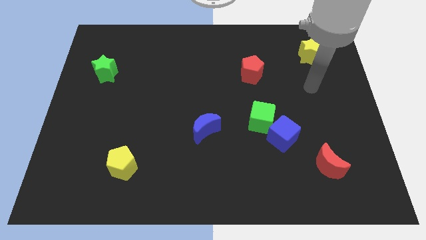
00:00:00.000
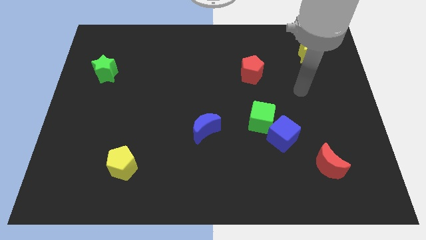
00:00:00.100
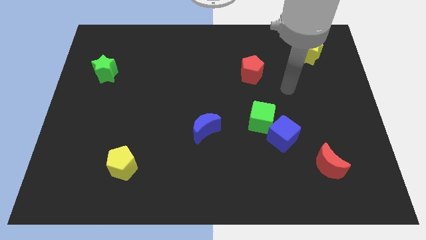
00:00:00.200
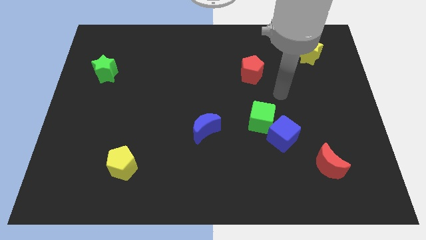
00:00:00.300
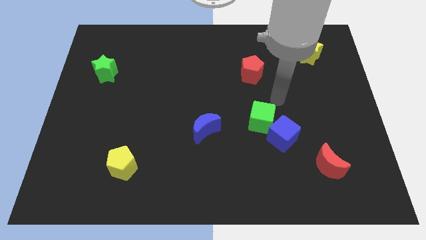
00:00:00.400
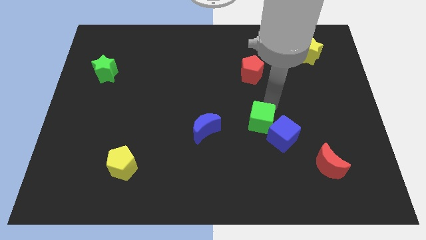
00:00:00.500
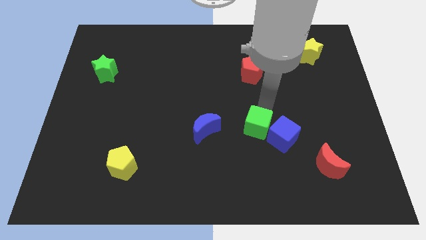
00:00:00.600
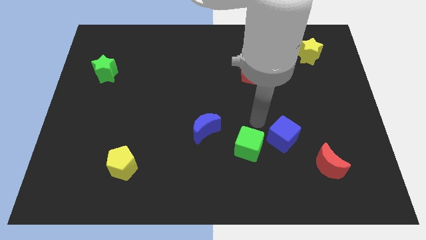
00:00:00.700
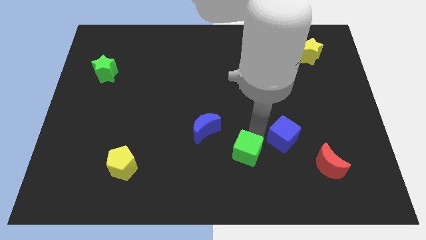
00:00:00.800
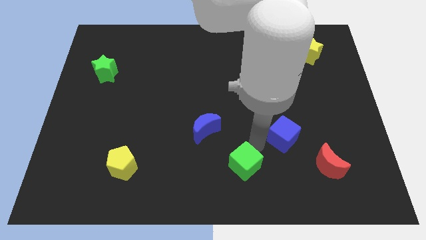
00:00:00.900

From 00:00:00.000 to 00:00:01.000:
pull the blue cube apart from the green cube

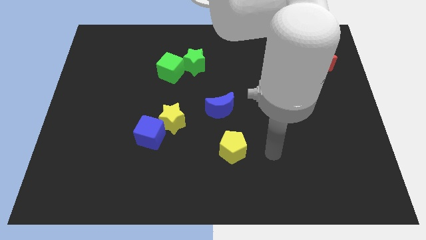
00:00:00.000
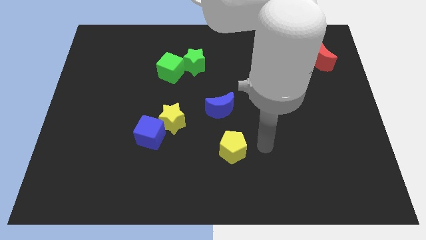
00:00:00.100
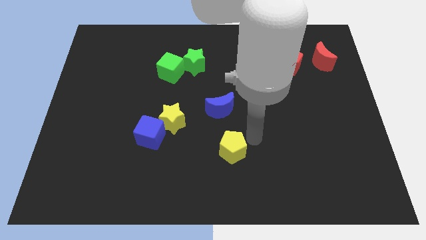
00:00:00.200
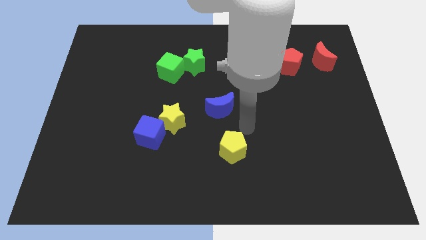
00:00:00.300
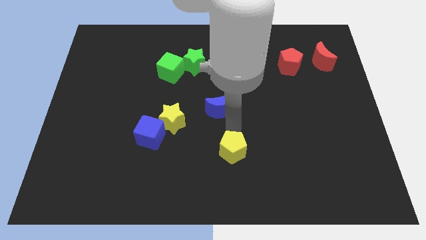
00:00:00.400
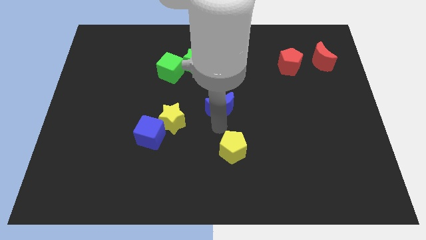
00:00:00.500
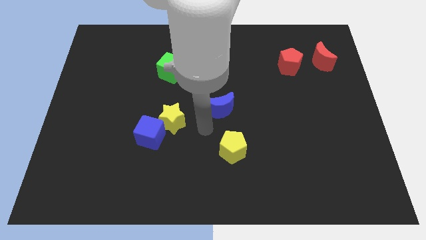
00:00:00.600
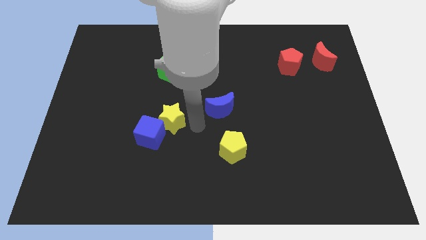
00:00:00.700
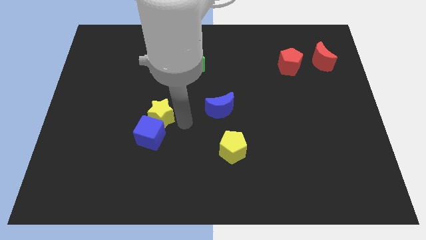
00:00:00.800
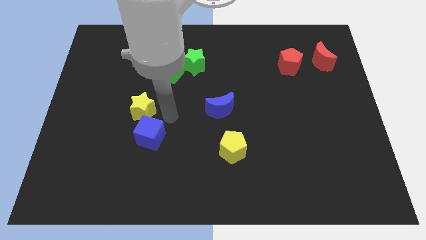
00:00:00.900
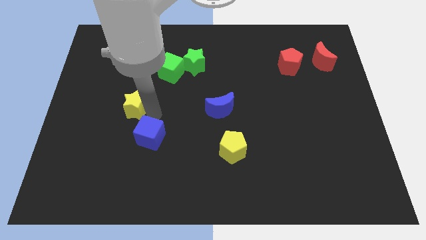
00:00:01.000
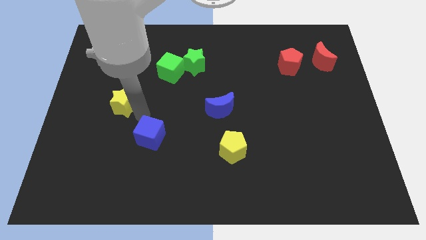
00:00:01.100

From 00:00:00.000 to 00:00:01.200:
move the blue cube away from the yellow star

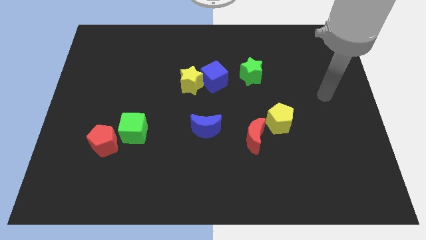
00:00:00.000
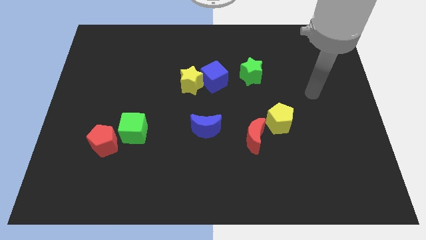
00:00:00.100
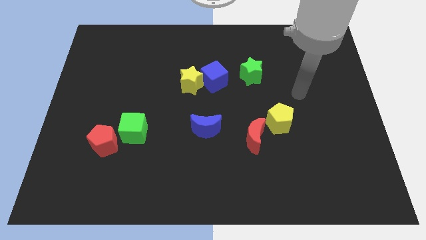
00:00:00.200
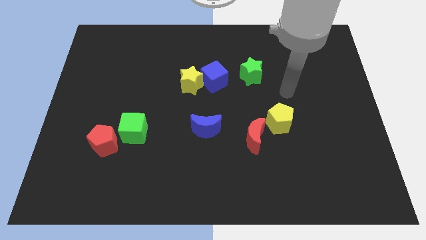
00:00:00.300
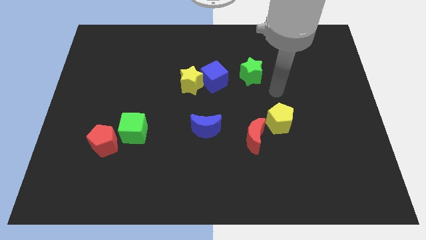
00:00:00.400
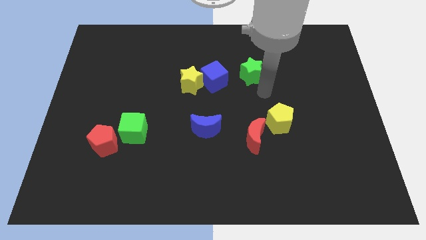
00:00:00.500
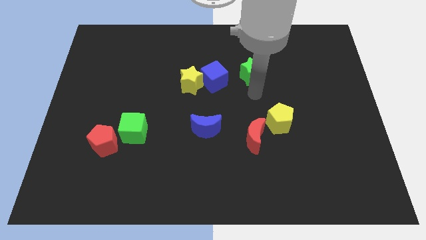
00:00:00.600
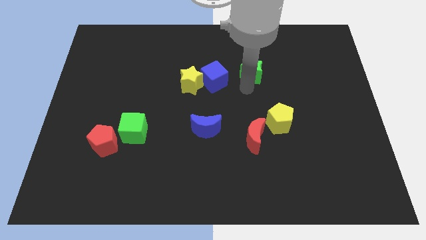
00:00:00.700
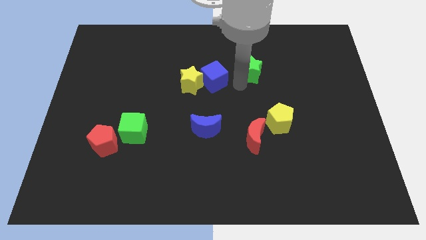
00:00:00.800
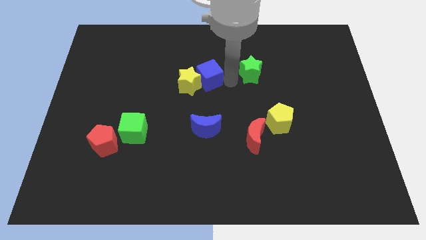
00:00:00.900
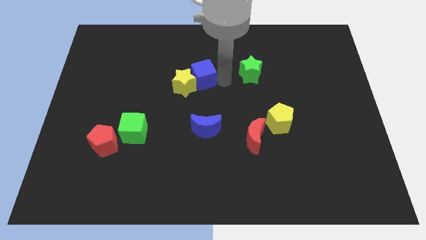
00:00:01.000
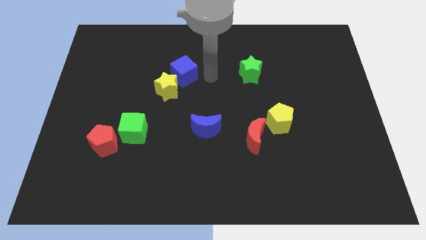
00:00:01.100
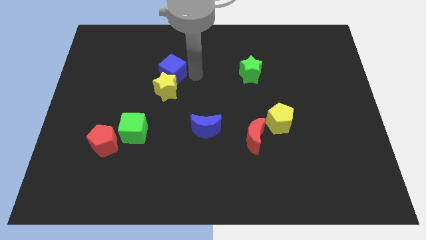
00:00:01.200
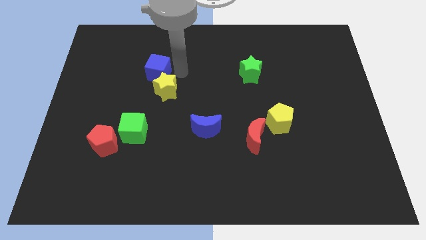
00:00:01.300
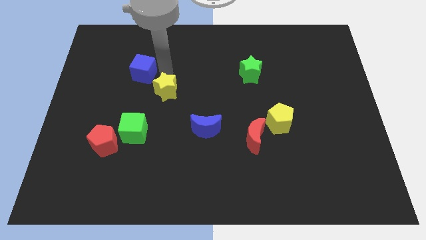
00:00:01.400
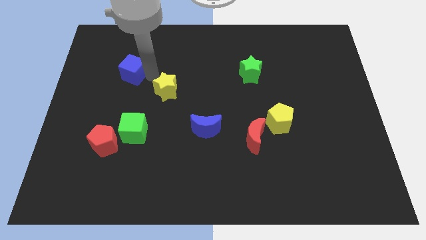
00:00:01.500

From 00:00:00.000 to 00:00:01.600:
separate the yellow star from the blue cube

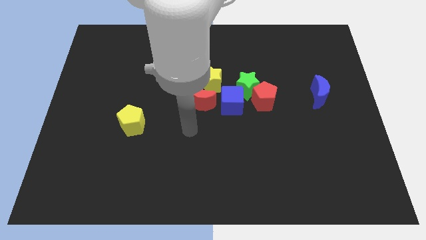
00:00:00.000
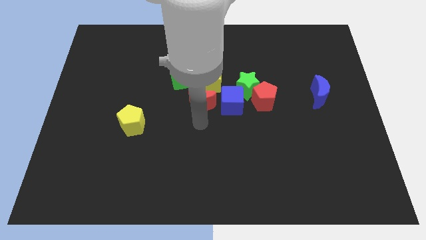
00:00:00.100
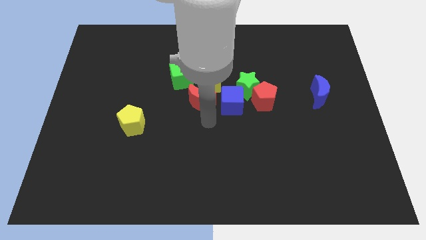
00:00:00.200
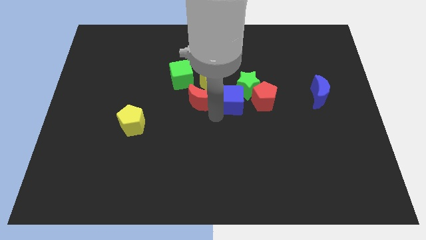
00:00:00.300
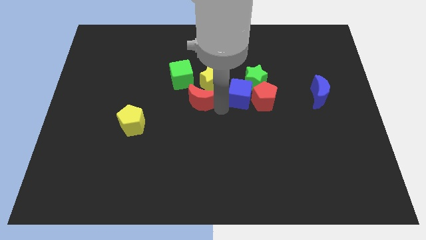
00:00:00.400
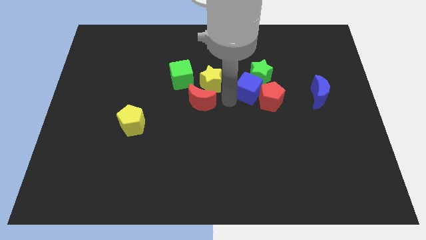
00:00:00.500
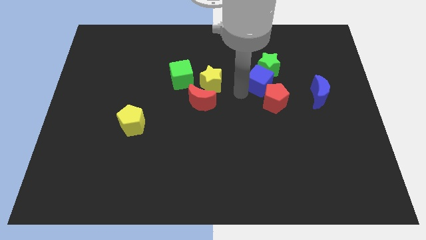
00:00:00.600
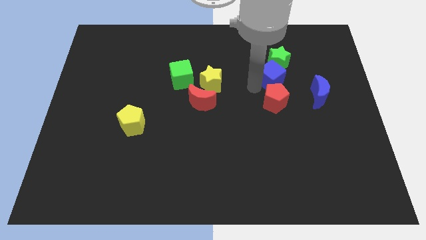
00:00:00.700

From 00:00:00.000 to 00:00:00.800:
separate the red pentagon from the green star and blue cube

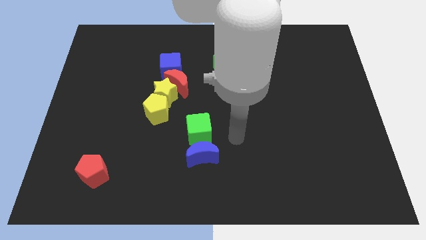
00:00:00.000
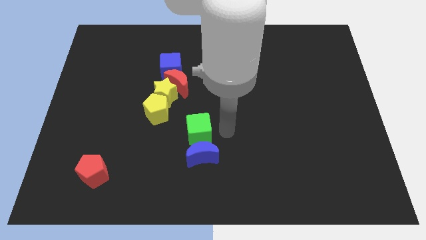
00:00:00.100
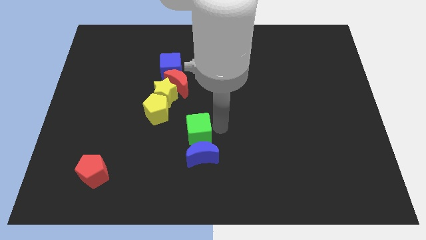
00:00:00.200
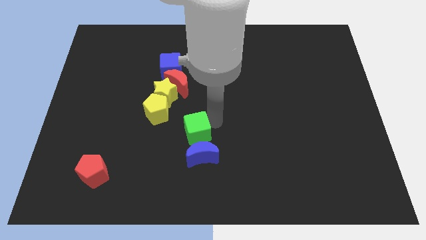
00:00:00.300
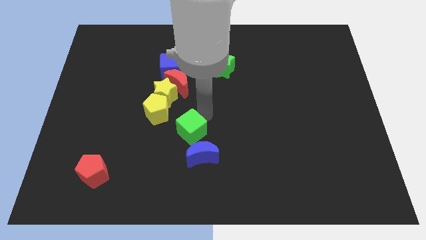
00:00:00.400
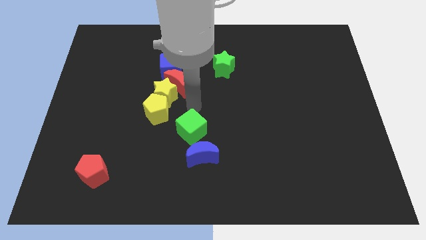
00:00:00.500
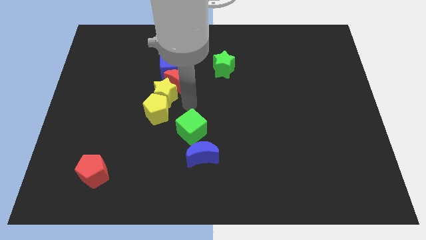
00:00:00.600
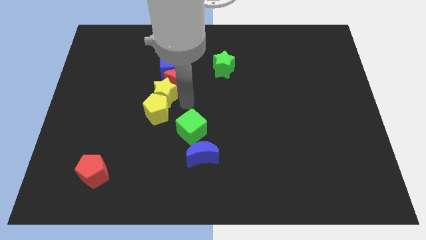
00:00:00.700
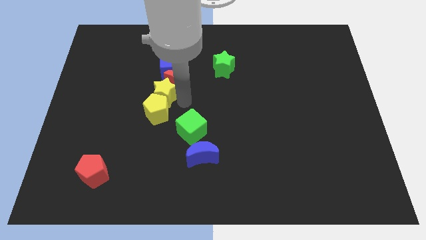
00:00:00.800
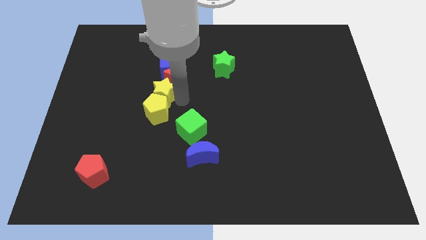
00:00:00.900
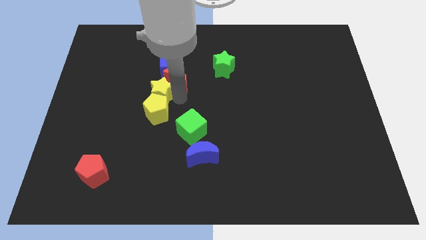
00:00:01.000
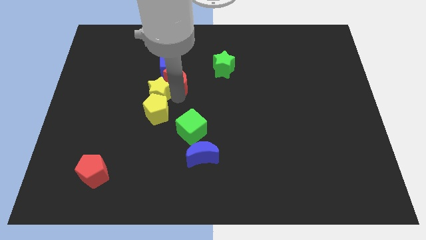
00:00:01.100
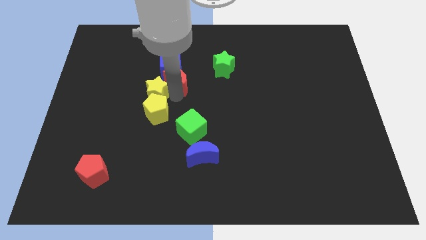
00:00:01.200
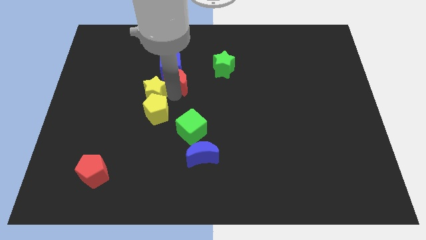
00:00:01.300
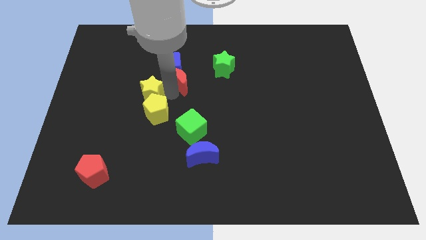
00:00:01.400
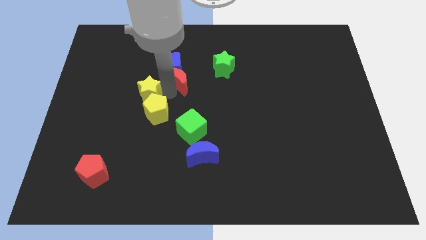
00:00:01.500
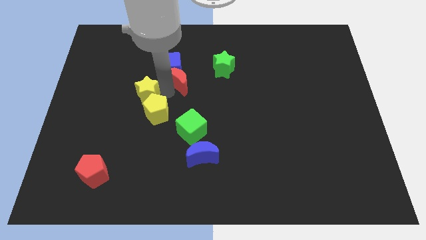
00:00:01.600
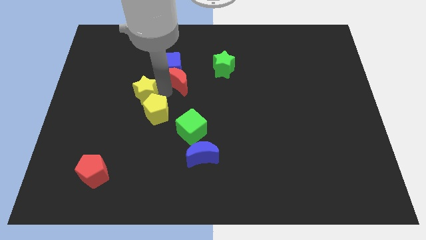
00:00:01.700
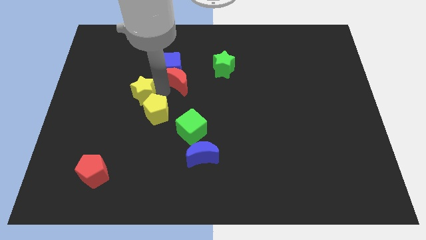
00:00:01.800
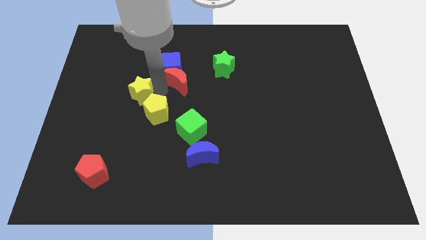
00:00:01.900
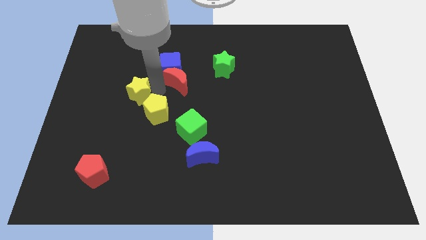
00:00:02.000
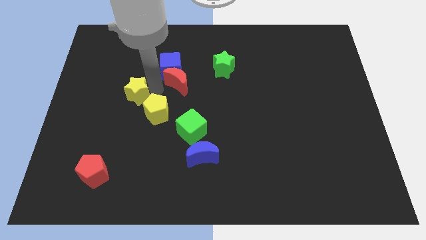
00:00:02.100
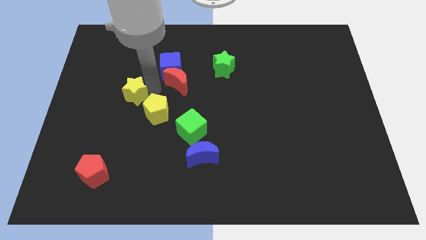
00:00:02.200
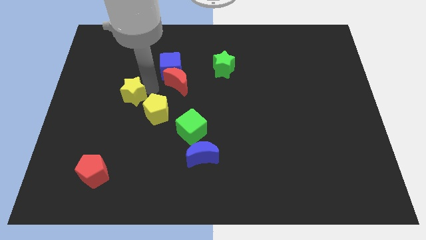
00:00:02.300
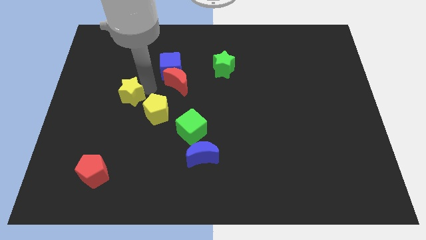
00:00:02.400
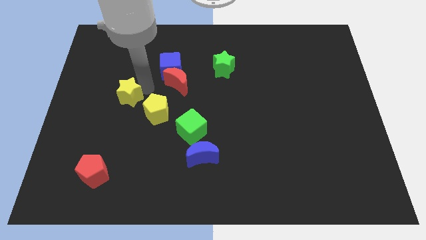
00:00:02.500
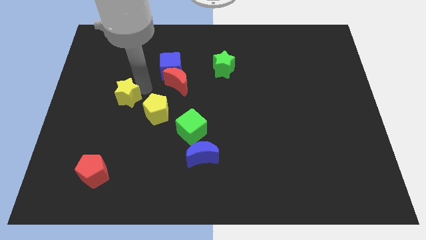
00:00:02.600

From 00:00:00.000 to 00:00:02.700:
move the yellow star away from the group

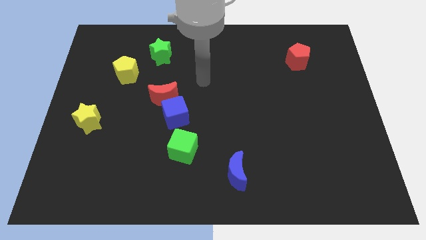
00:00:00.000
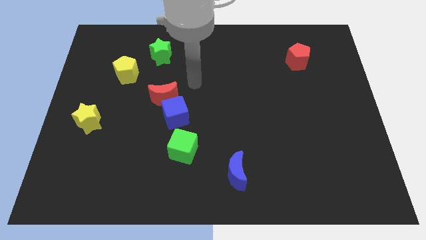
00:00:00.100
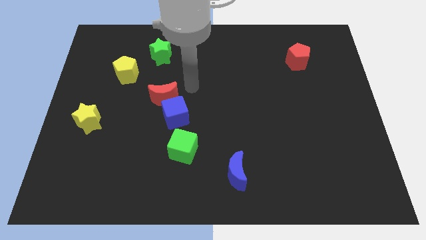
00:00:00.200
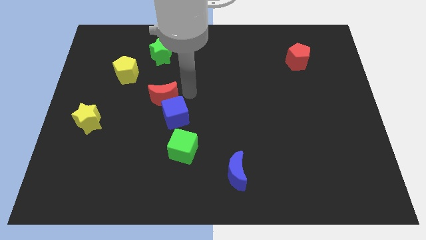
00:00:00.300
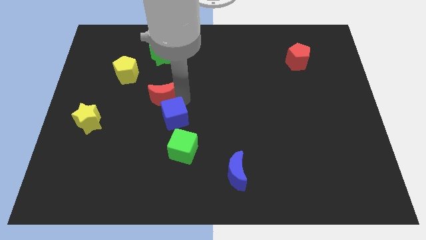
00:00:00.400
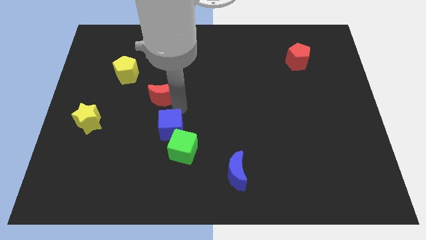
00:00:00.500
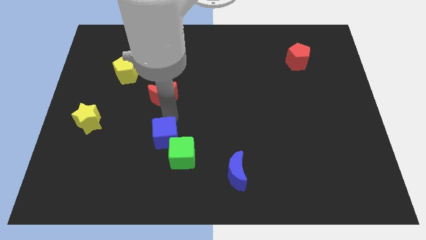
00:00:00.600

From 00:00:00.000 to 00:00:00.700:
pull the red moon apart from the blue cube

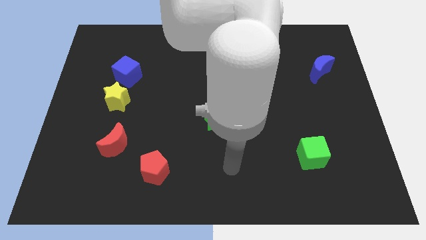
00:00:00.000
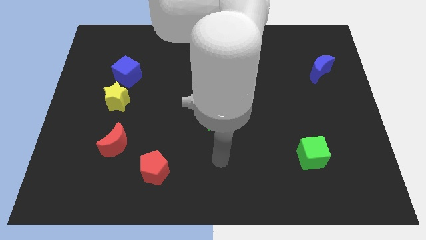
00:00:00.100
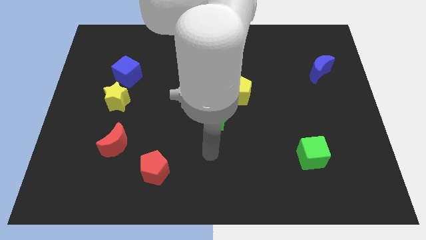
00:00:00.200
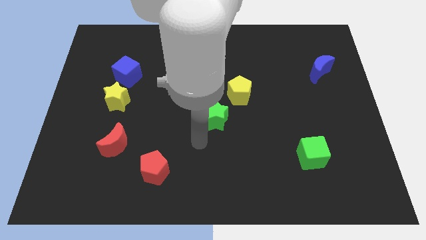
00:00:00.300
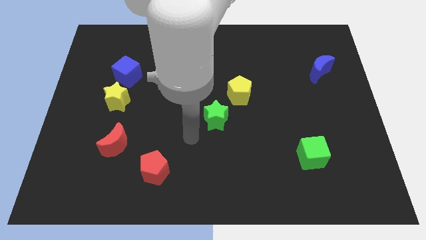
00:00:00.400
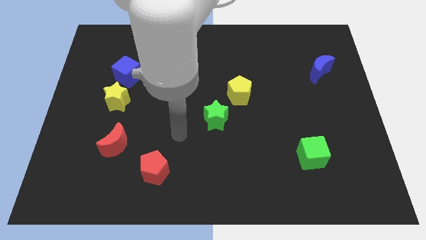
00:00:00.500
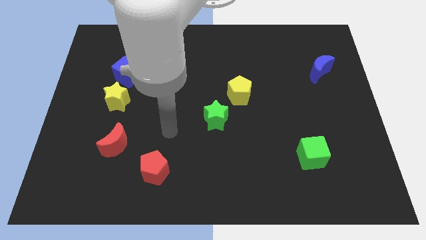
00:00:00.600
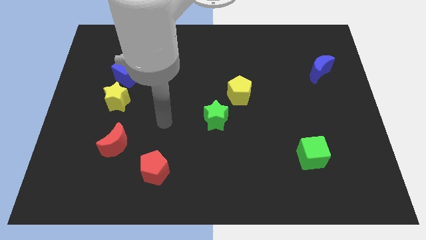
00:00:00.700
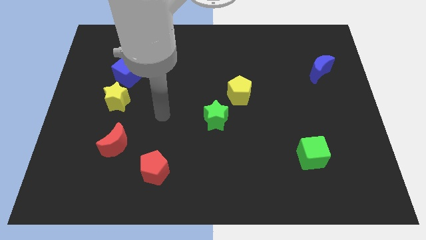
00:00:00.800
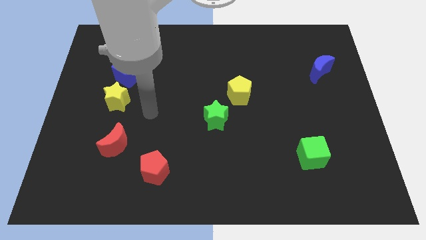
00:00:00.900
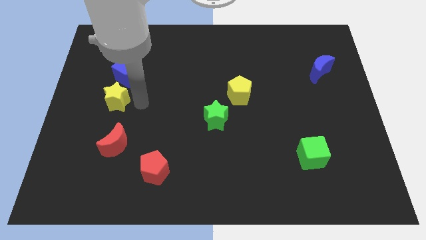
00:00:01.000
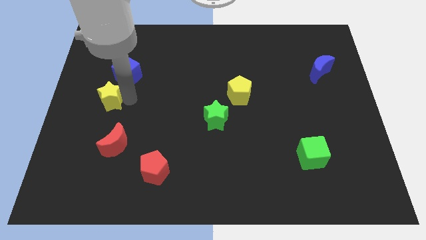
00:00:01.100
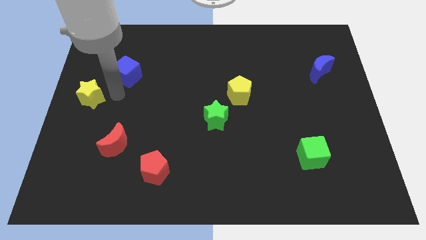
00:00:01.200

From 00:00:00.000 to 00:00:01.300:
separate the blue cube from the yellow star
